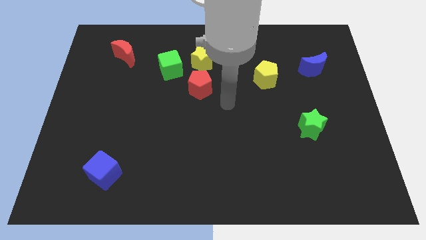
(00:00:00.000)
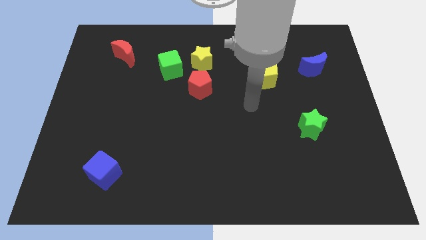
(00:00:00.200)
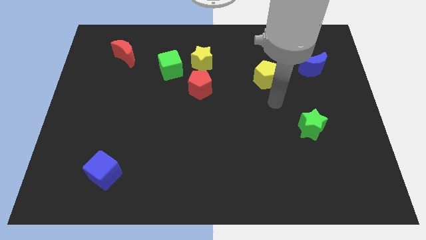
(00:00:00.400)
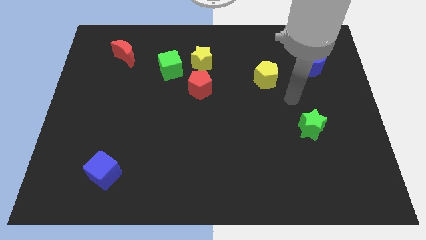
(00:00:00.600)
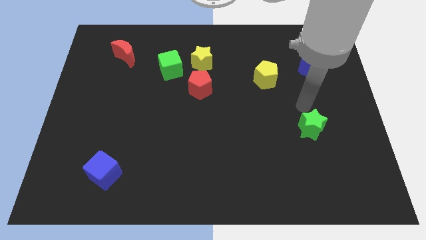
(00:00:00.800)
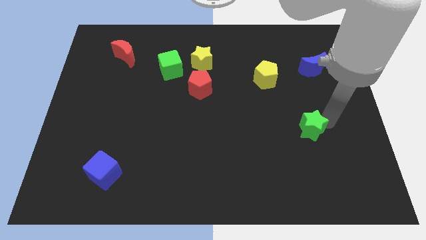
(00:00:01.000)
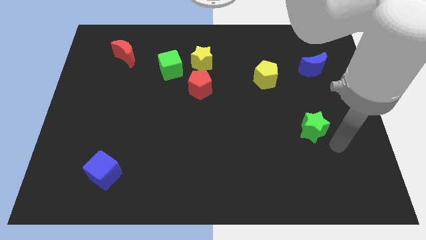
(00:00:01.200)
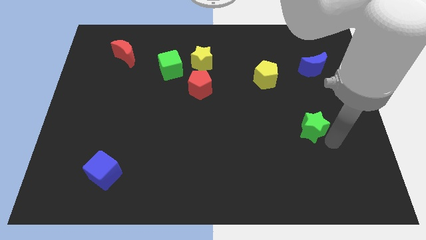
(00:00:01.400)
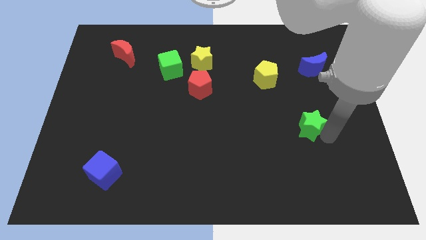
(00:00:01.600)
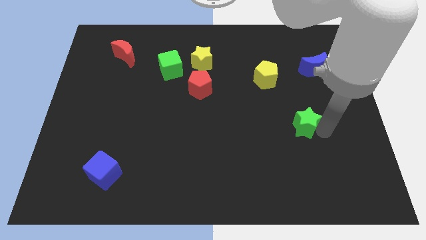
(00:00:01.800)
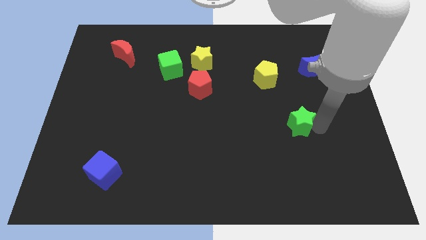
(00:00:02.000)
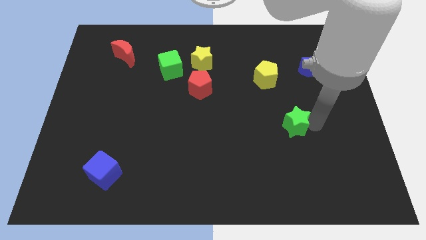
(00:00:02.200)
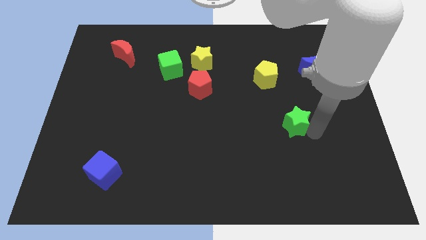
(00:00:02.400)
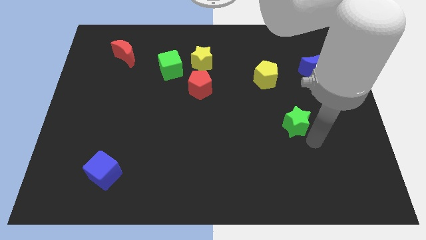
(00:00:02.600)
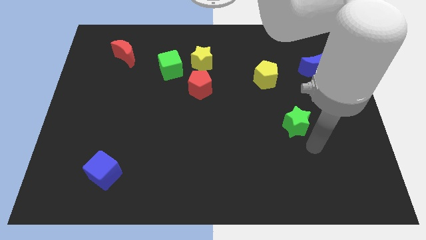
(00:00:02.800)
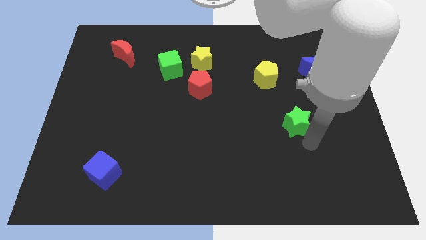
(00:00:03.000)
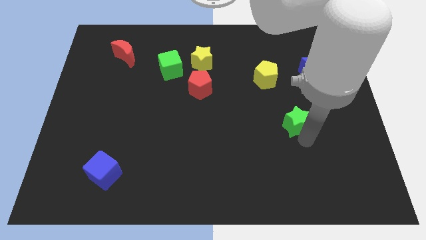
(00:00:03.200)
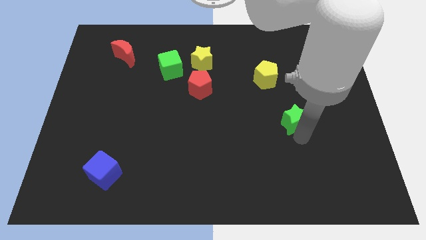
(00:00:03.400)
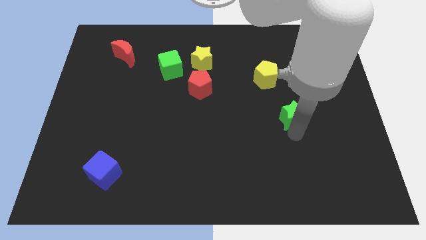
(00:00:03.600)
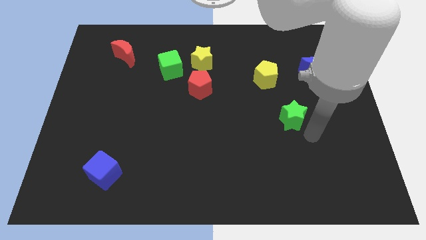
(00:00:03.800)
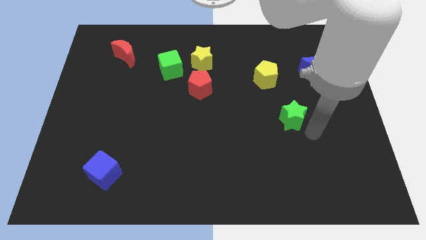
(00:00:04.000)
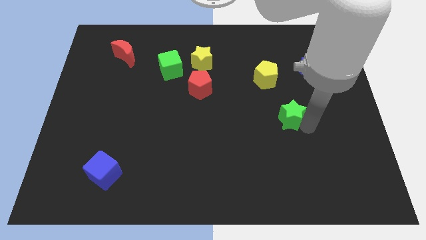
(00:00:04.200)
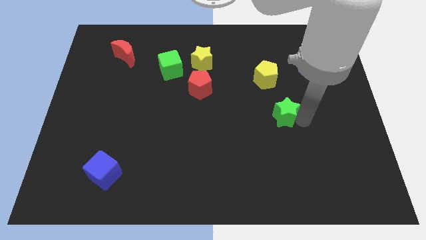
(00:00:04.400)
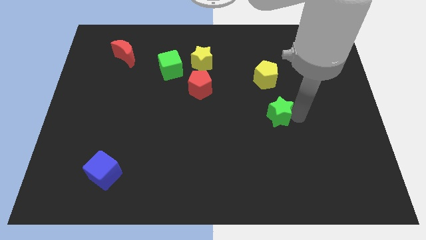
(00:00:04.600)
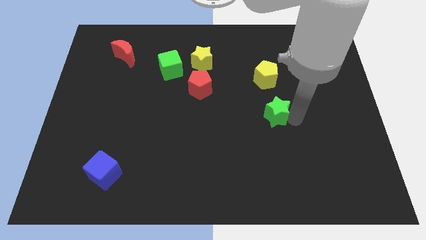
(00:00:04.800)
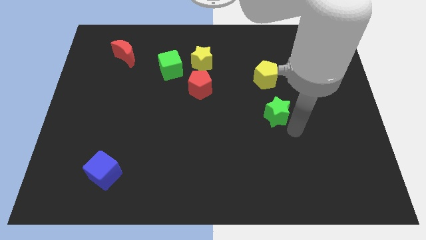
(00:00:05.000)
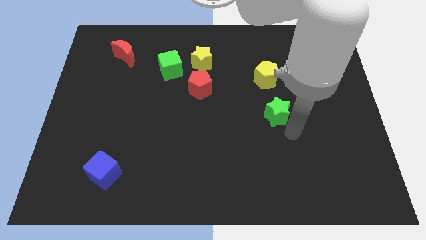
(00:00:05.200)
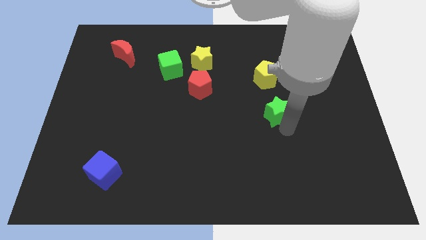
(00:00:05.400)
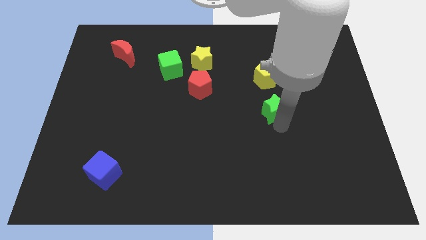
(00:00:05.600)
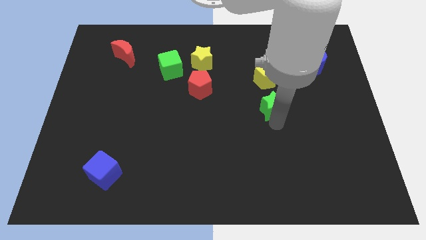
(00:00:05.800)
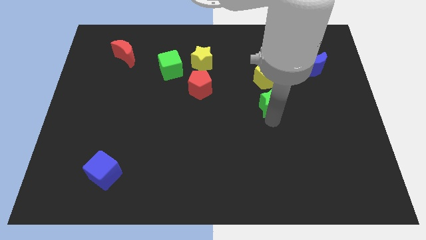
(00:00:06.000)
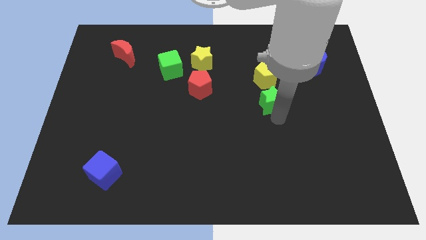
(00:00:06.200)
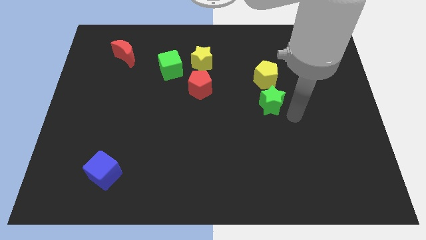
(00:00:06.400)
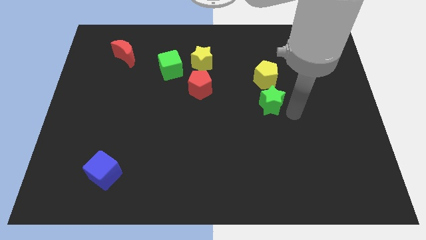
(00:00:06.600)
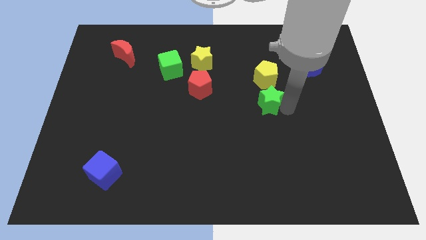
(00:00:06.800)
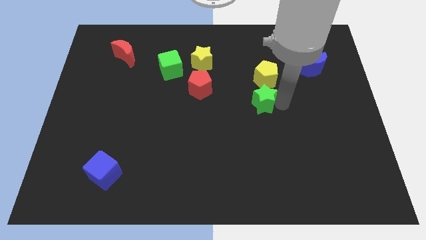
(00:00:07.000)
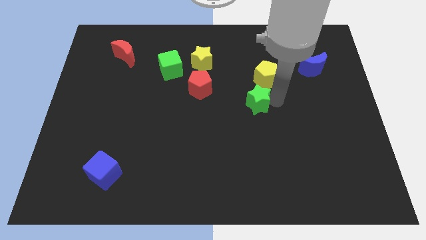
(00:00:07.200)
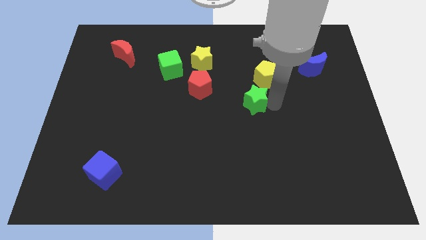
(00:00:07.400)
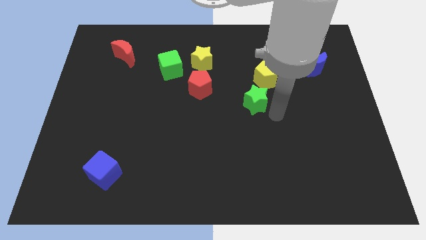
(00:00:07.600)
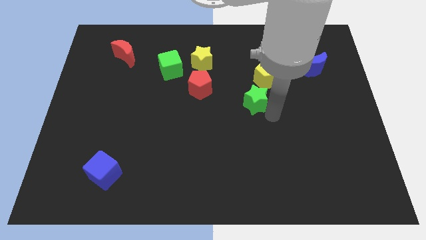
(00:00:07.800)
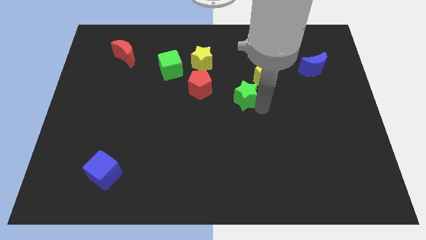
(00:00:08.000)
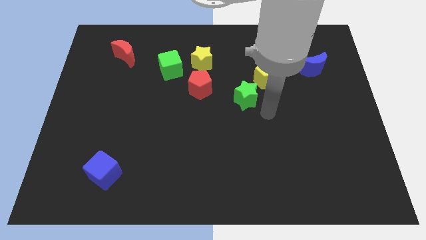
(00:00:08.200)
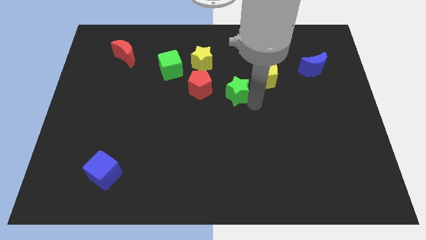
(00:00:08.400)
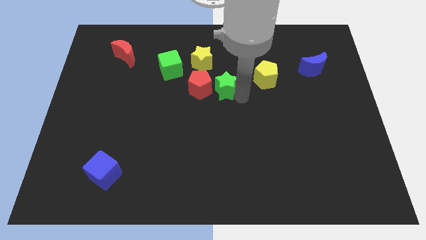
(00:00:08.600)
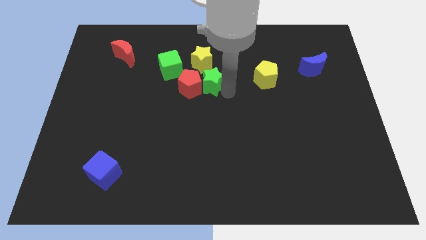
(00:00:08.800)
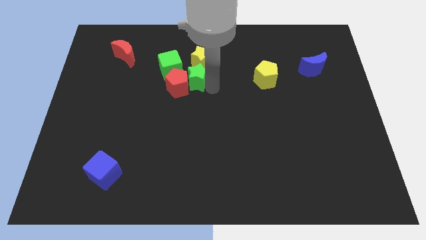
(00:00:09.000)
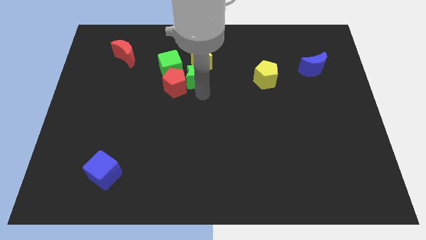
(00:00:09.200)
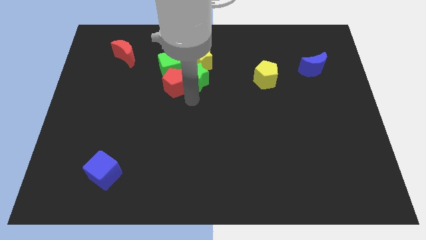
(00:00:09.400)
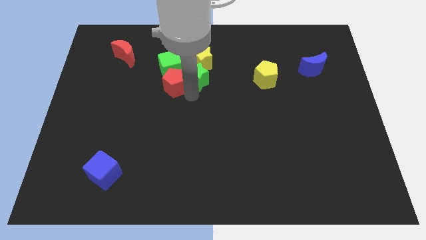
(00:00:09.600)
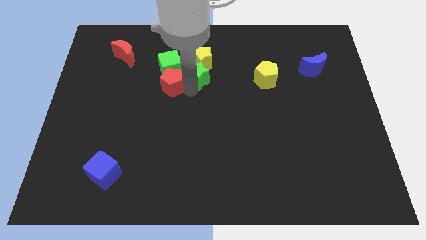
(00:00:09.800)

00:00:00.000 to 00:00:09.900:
move the green star next to the yellow star

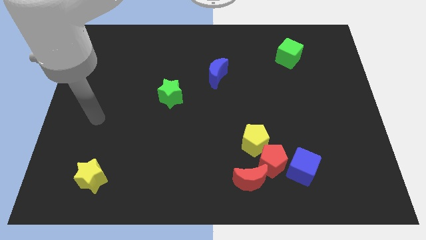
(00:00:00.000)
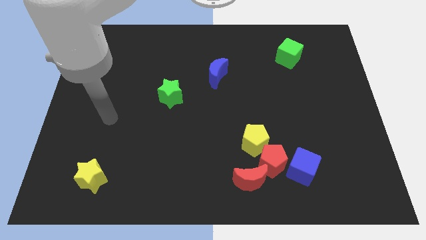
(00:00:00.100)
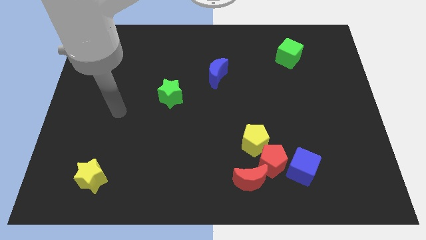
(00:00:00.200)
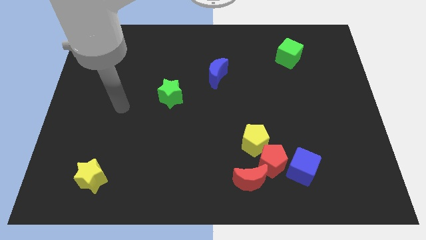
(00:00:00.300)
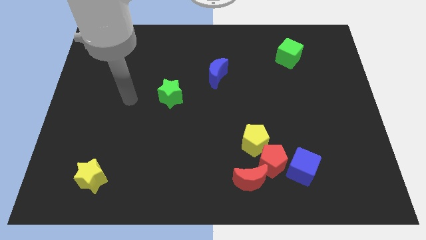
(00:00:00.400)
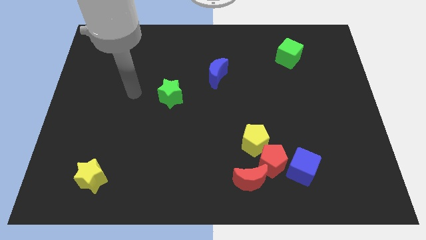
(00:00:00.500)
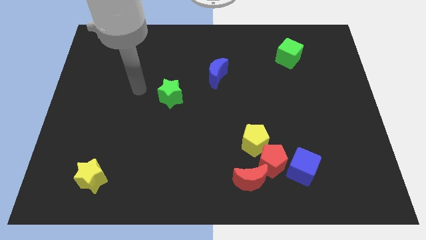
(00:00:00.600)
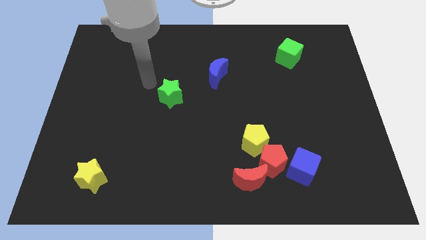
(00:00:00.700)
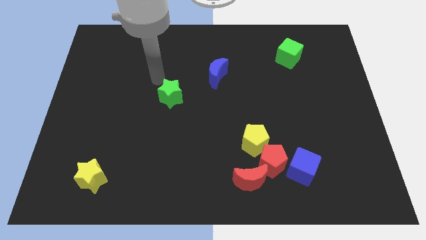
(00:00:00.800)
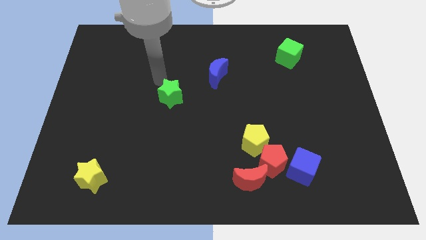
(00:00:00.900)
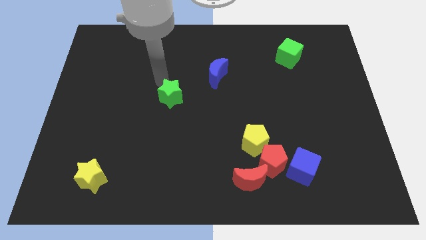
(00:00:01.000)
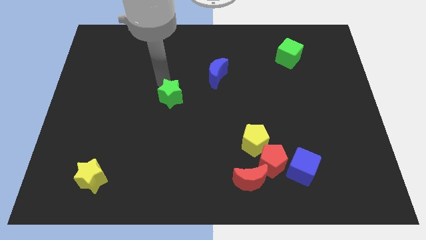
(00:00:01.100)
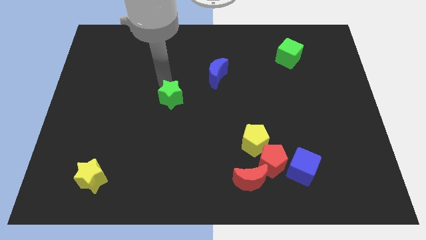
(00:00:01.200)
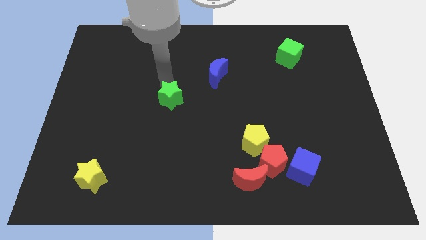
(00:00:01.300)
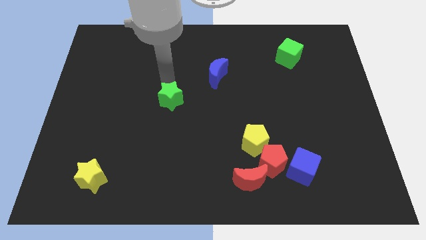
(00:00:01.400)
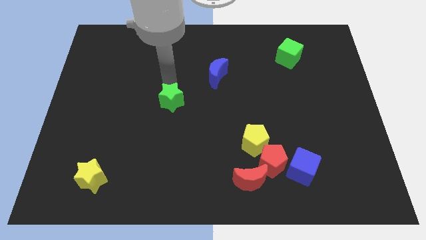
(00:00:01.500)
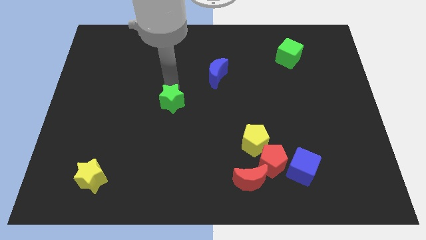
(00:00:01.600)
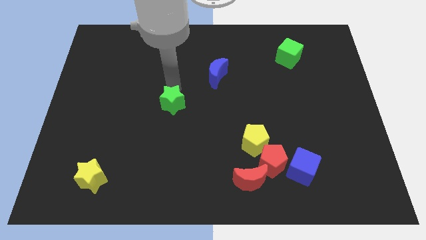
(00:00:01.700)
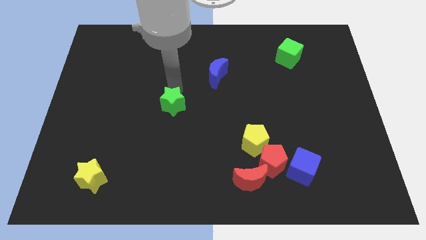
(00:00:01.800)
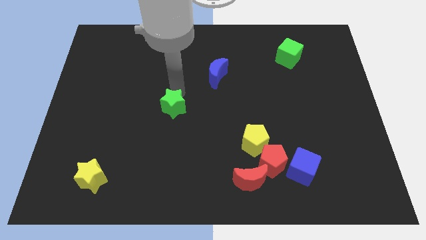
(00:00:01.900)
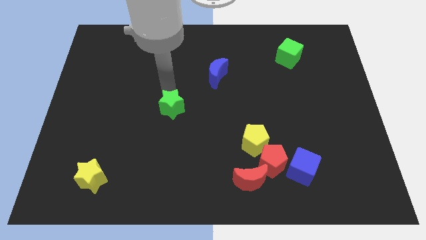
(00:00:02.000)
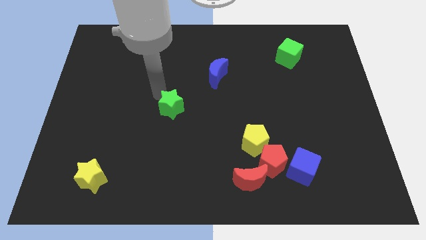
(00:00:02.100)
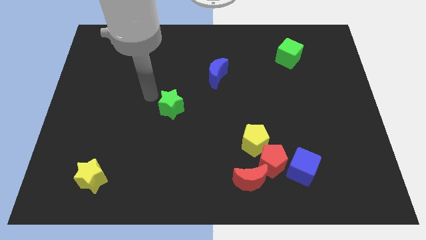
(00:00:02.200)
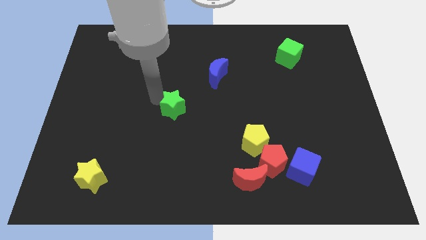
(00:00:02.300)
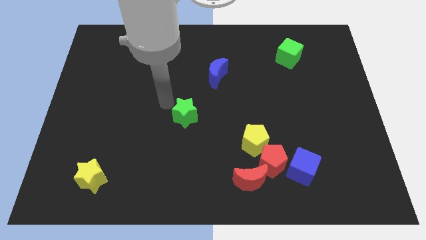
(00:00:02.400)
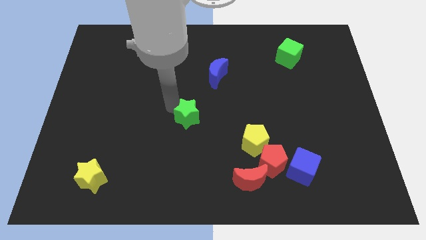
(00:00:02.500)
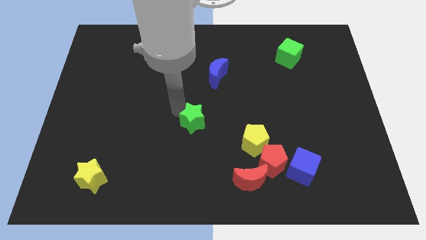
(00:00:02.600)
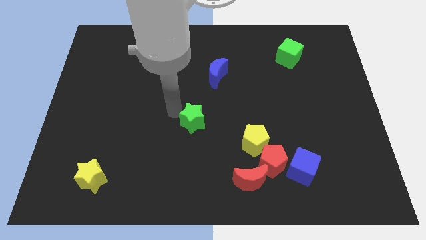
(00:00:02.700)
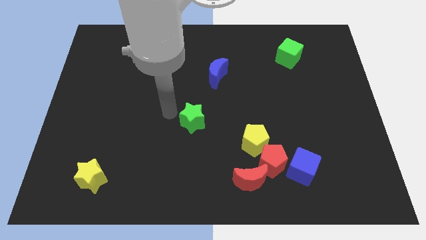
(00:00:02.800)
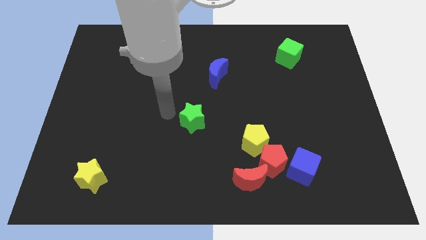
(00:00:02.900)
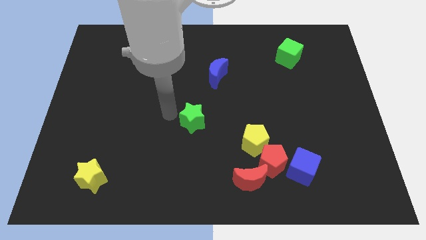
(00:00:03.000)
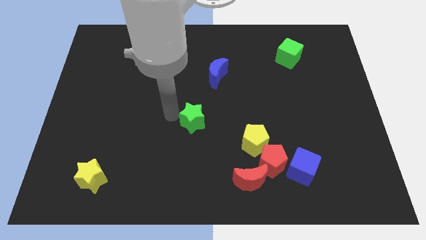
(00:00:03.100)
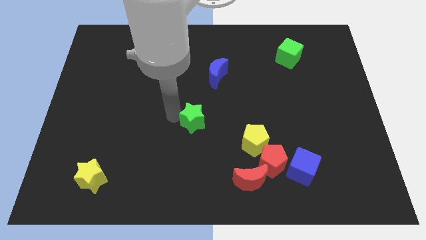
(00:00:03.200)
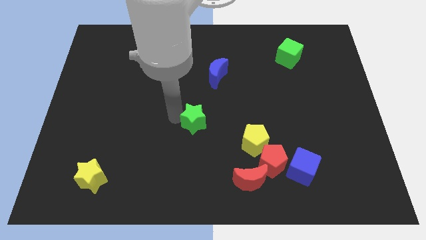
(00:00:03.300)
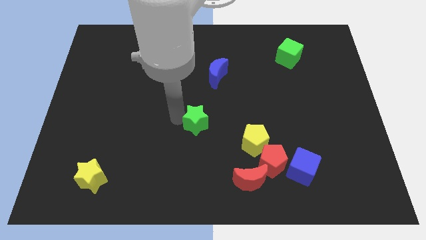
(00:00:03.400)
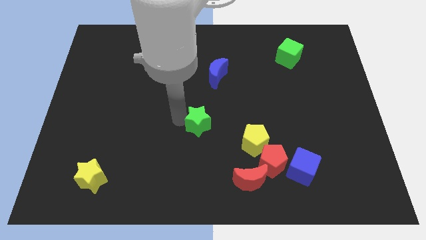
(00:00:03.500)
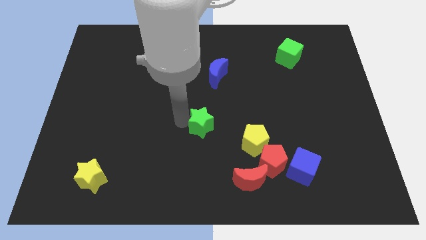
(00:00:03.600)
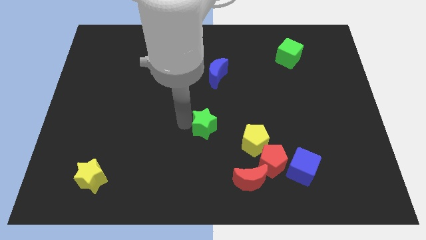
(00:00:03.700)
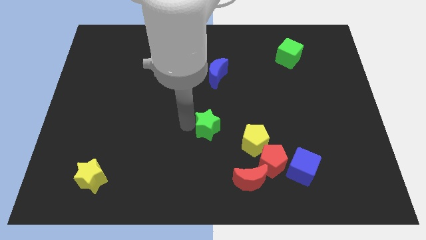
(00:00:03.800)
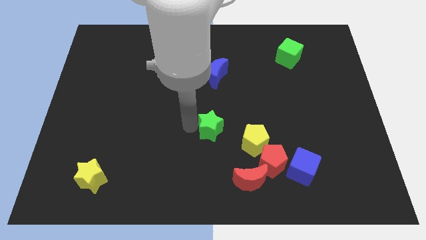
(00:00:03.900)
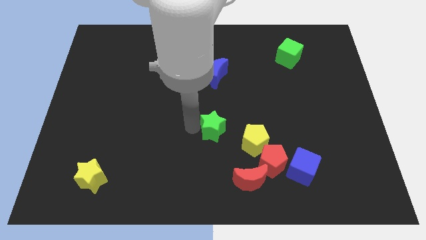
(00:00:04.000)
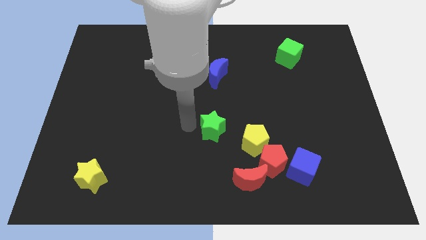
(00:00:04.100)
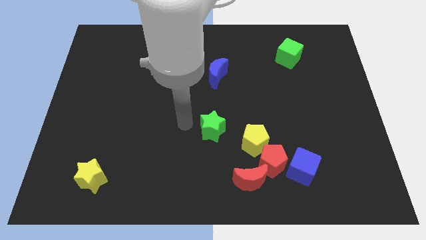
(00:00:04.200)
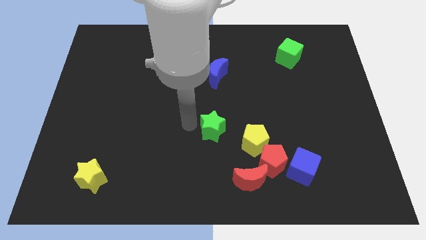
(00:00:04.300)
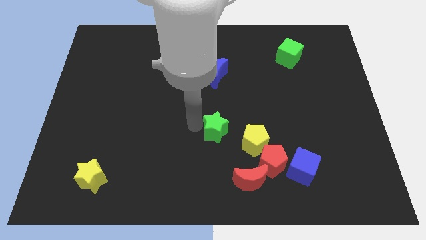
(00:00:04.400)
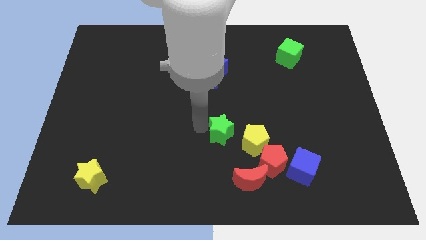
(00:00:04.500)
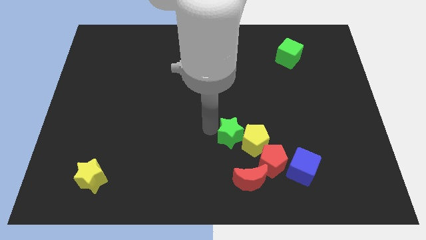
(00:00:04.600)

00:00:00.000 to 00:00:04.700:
push the green star to the yellow pentagon
